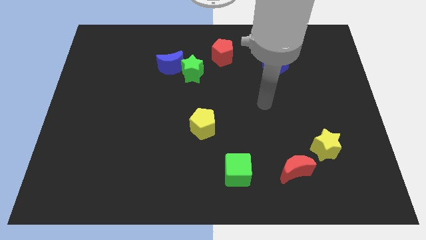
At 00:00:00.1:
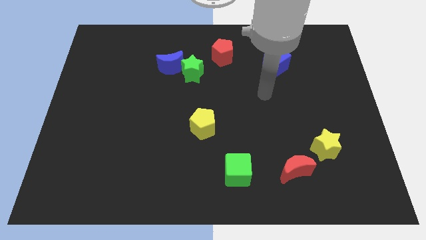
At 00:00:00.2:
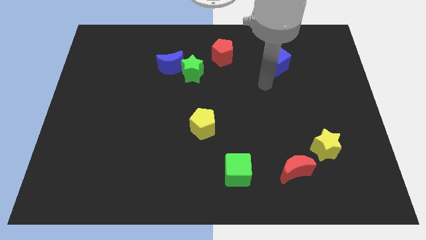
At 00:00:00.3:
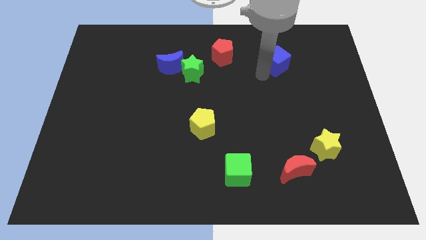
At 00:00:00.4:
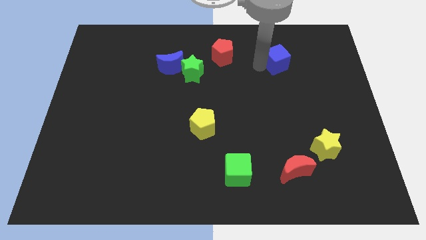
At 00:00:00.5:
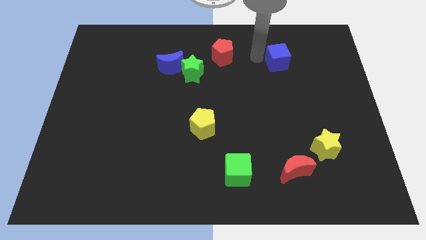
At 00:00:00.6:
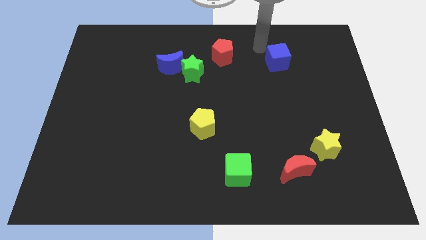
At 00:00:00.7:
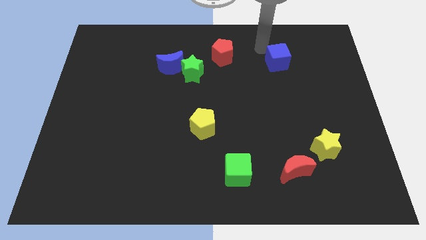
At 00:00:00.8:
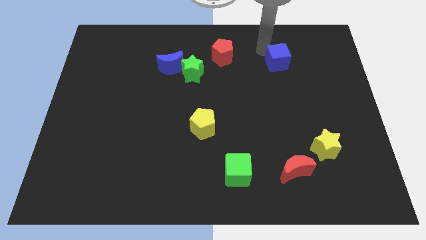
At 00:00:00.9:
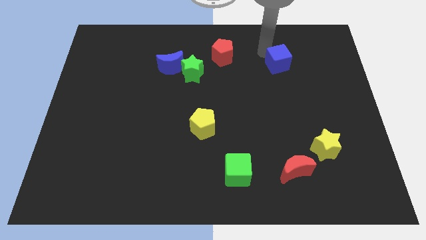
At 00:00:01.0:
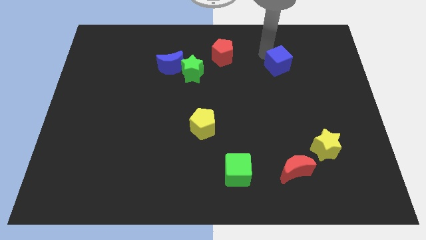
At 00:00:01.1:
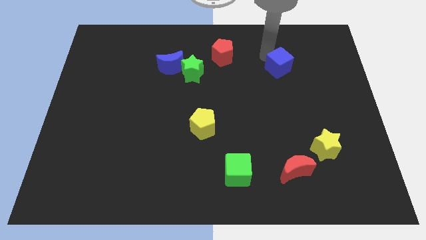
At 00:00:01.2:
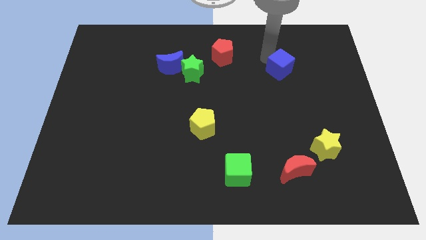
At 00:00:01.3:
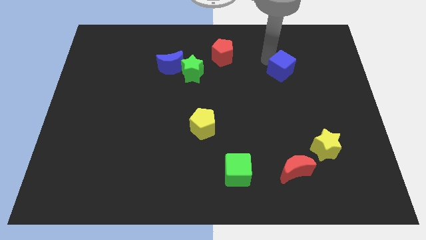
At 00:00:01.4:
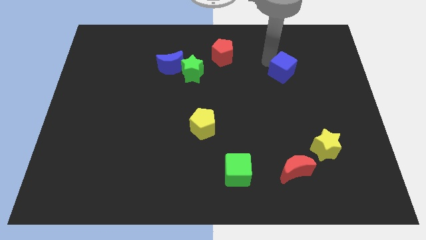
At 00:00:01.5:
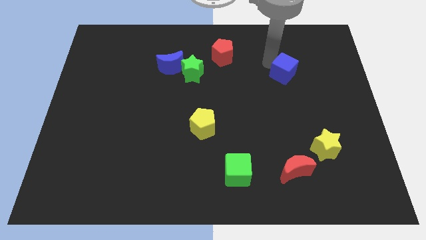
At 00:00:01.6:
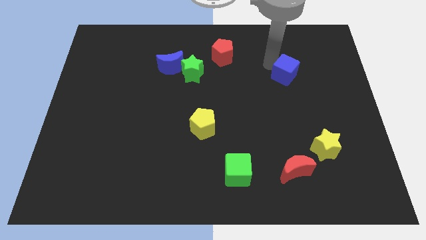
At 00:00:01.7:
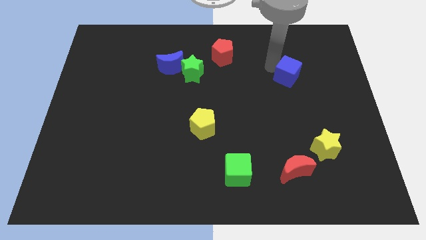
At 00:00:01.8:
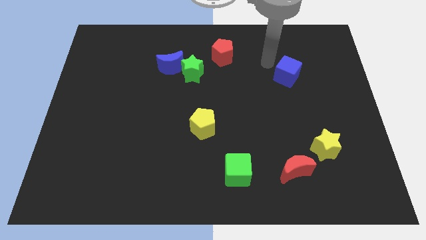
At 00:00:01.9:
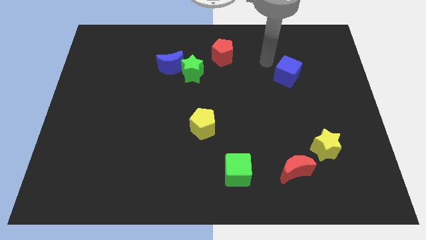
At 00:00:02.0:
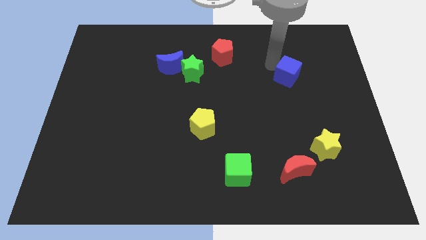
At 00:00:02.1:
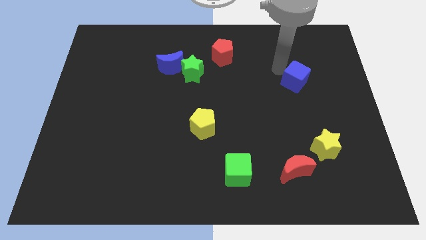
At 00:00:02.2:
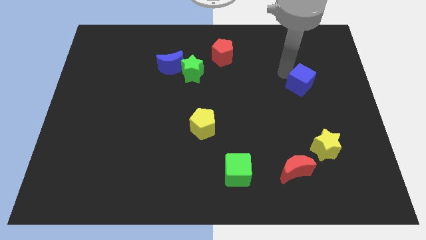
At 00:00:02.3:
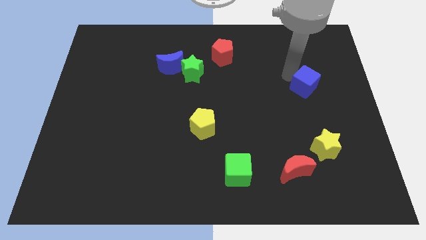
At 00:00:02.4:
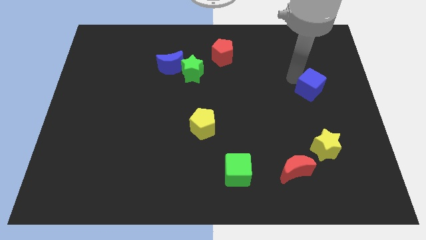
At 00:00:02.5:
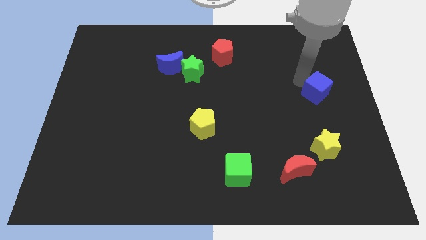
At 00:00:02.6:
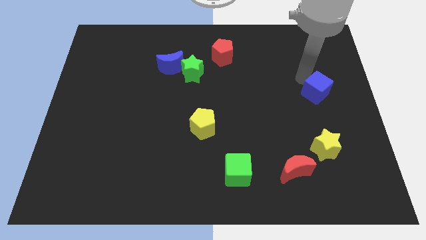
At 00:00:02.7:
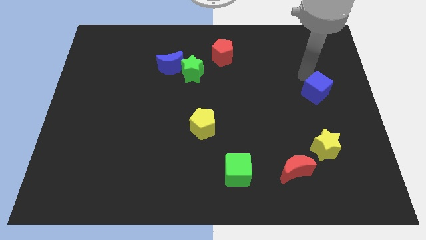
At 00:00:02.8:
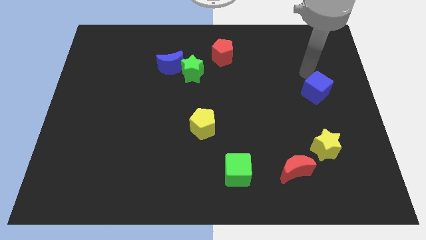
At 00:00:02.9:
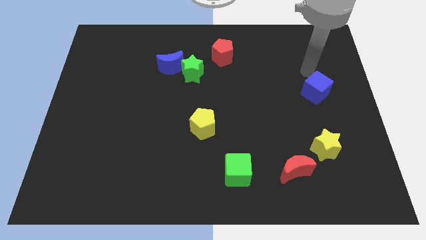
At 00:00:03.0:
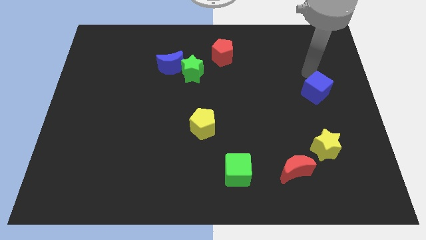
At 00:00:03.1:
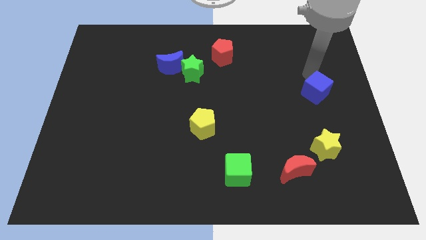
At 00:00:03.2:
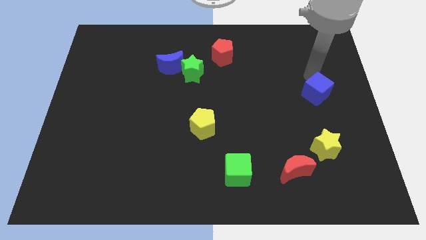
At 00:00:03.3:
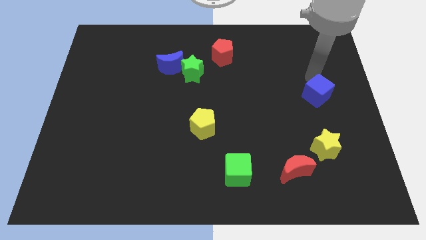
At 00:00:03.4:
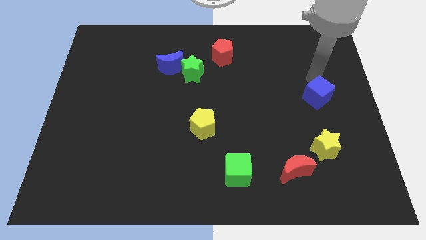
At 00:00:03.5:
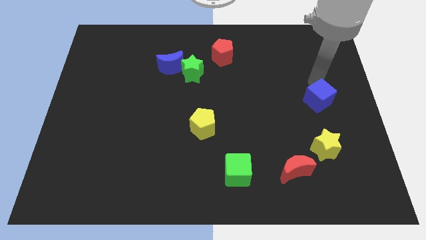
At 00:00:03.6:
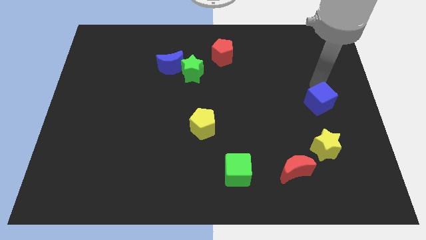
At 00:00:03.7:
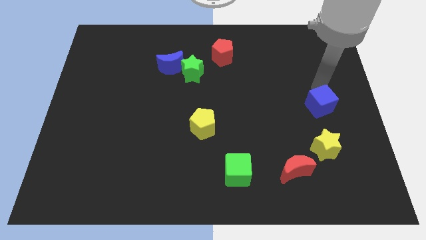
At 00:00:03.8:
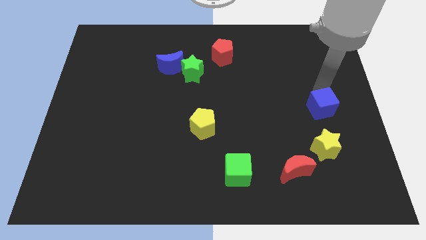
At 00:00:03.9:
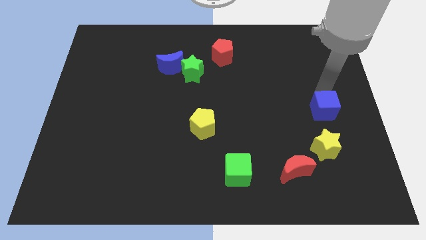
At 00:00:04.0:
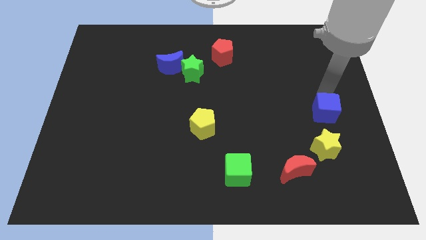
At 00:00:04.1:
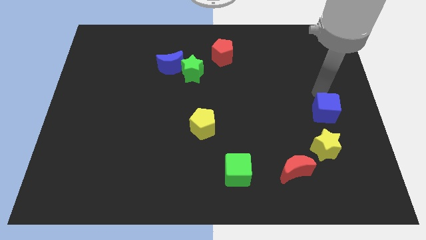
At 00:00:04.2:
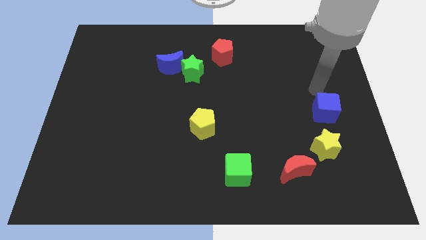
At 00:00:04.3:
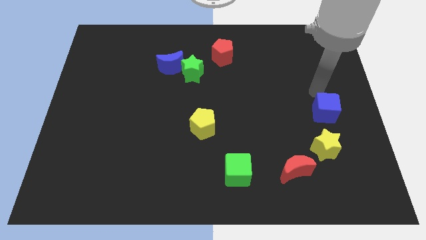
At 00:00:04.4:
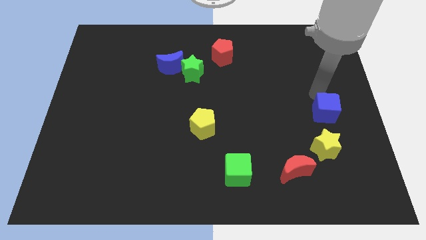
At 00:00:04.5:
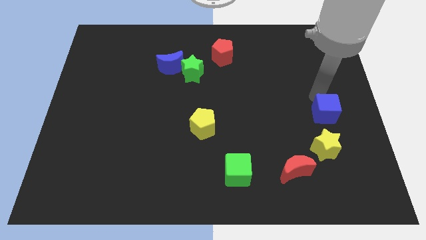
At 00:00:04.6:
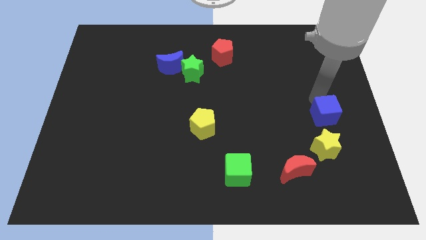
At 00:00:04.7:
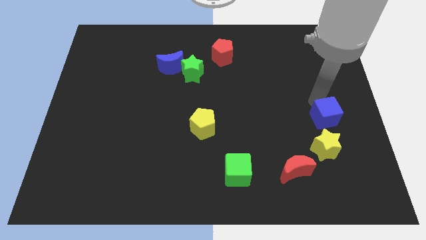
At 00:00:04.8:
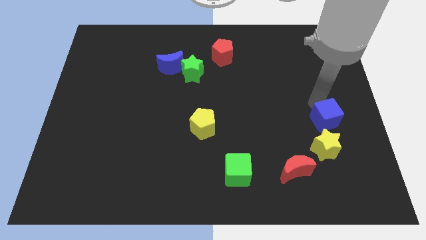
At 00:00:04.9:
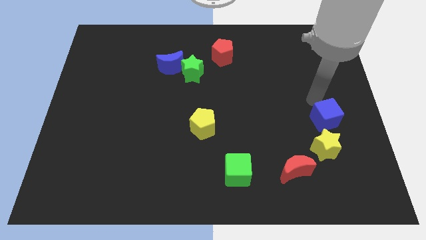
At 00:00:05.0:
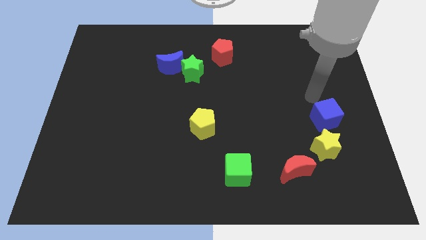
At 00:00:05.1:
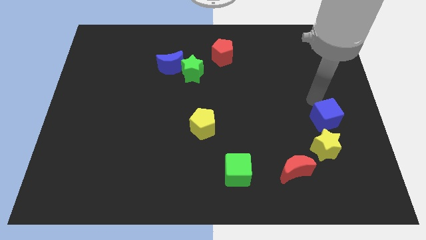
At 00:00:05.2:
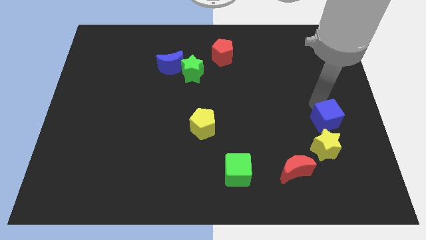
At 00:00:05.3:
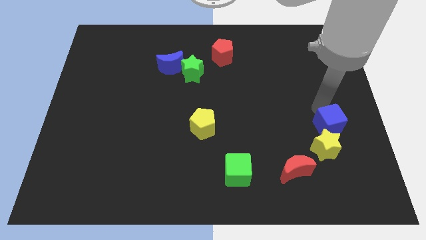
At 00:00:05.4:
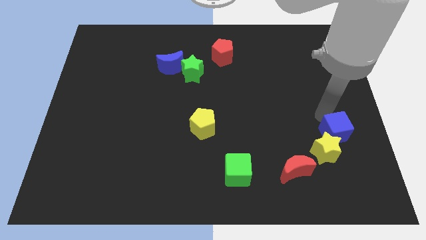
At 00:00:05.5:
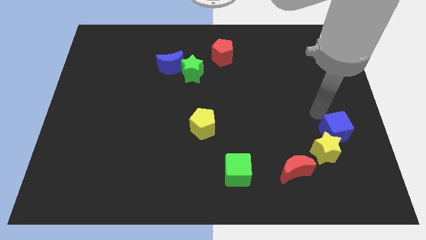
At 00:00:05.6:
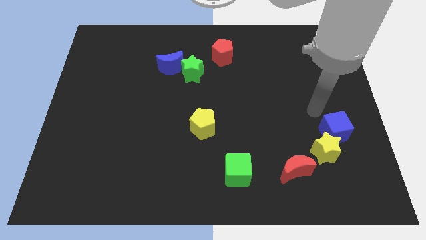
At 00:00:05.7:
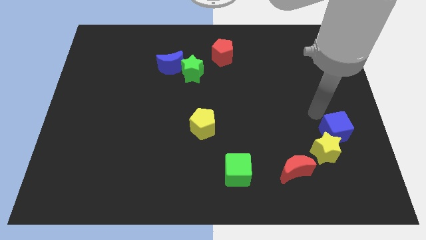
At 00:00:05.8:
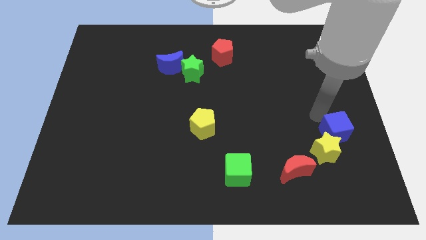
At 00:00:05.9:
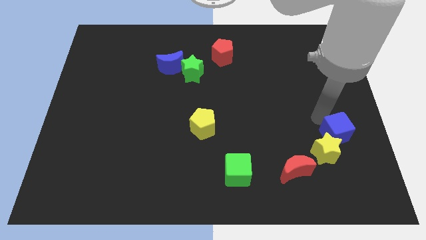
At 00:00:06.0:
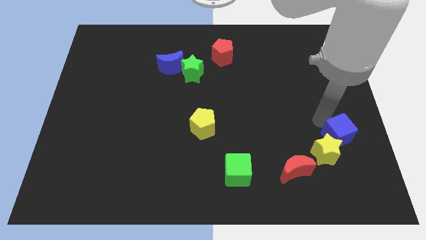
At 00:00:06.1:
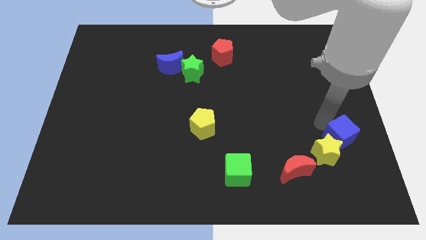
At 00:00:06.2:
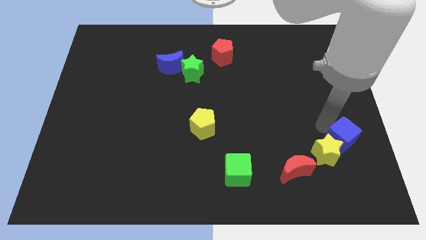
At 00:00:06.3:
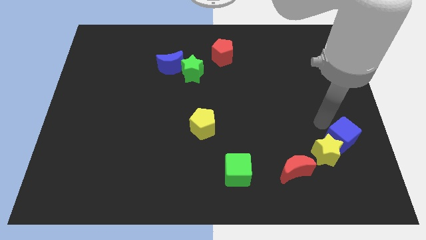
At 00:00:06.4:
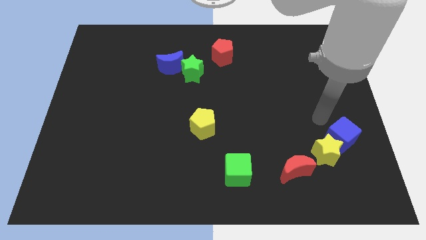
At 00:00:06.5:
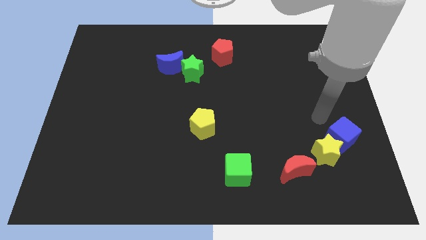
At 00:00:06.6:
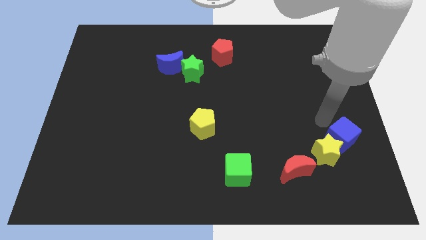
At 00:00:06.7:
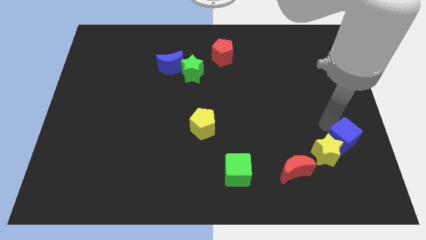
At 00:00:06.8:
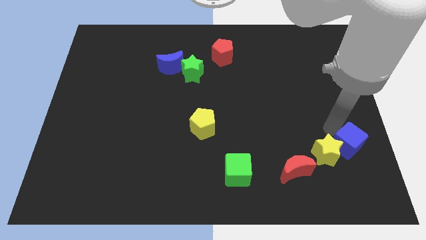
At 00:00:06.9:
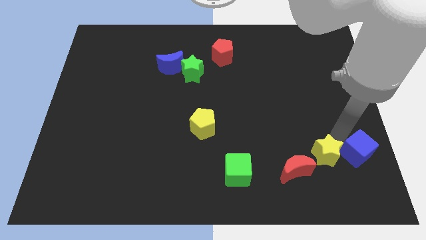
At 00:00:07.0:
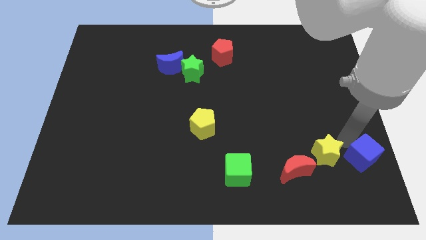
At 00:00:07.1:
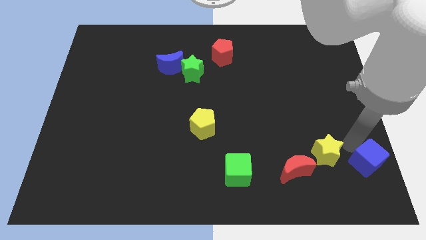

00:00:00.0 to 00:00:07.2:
slide the blue cube to the lower right corner
